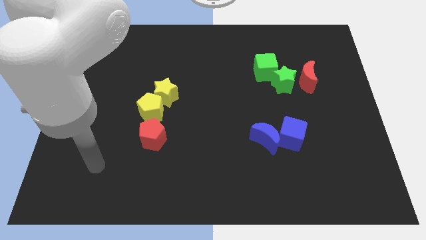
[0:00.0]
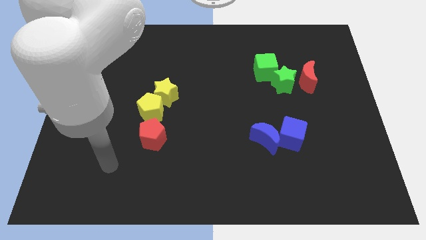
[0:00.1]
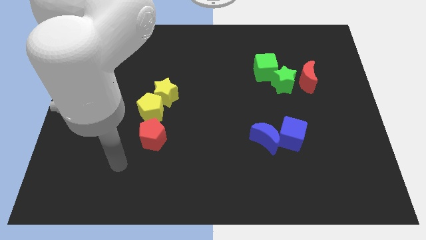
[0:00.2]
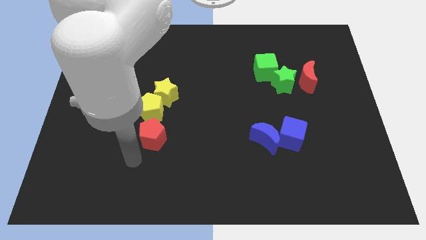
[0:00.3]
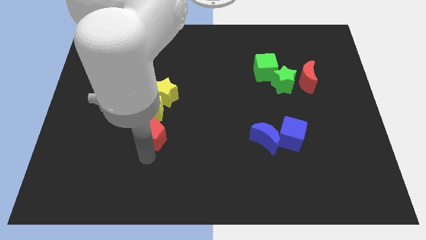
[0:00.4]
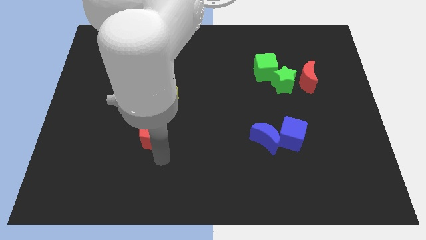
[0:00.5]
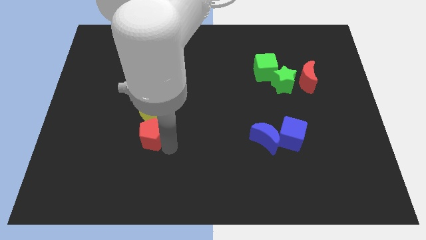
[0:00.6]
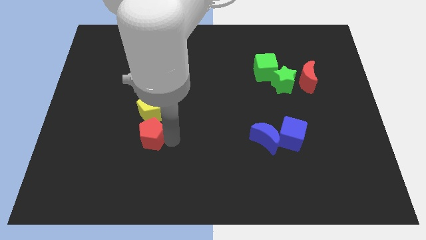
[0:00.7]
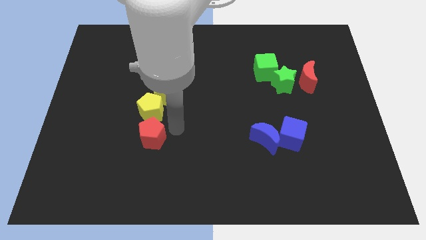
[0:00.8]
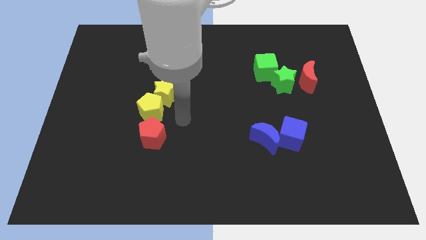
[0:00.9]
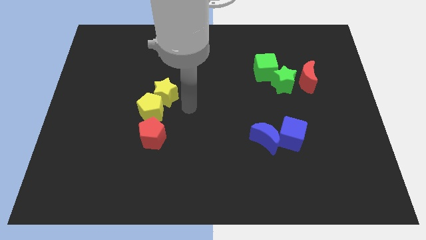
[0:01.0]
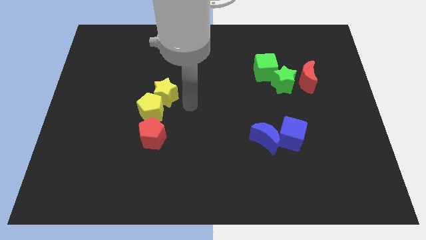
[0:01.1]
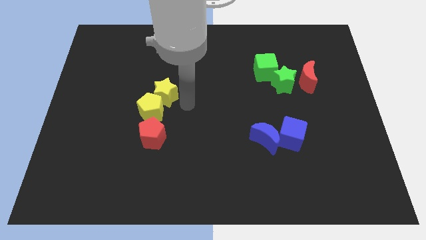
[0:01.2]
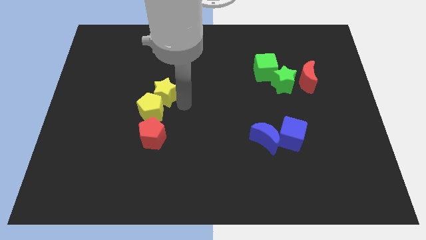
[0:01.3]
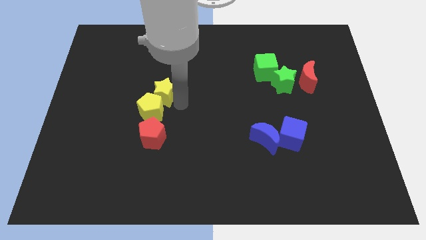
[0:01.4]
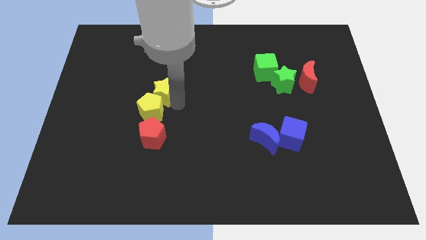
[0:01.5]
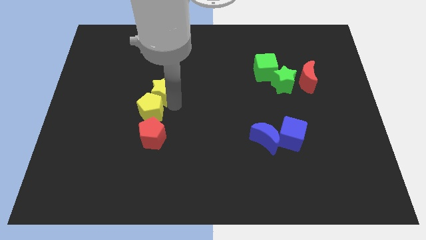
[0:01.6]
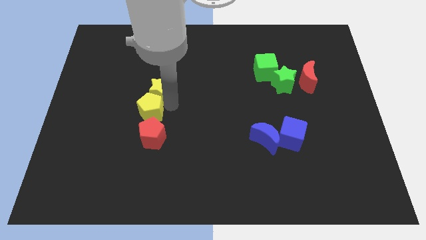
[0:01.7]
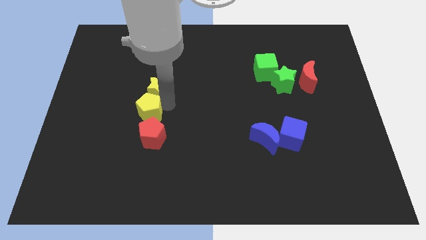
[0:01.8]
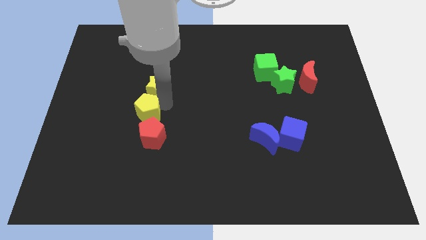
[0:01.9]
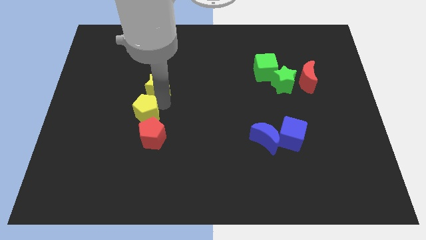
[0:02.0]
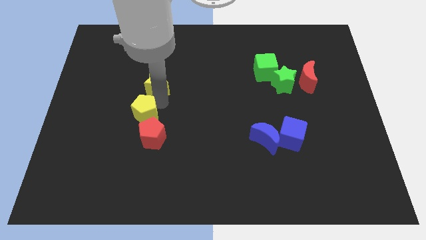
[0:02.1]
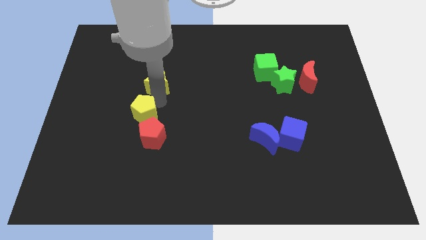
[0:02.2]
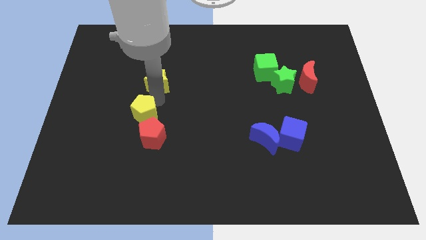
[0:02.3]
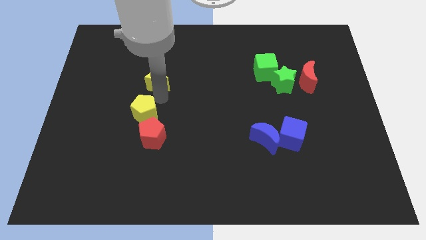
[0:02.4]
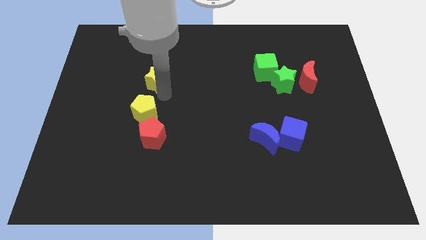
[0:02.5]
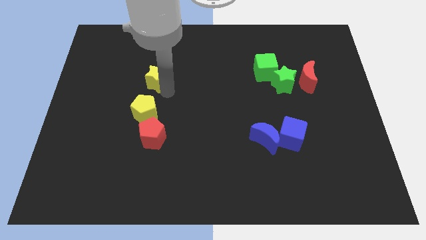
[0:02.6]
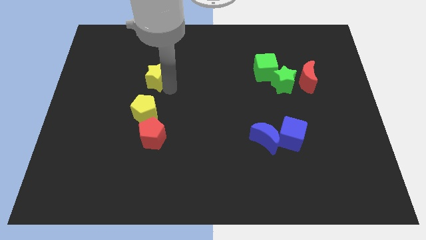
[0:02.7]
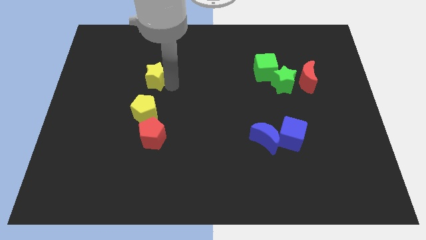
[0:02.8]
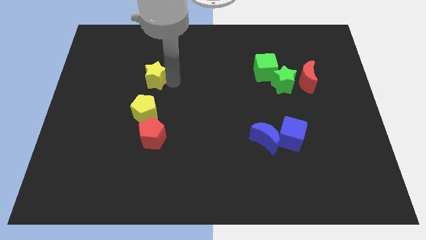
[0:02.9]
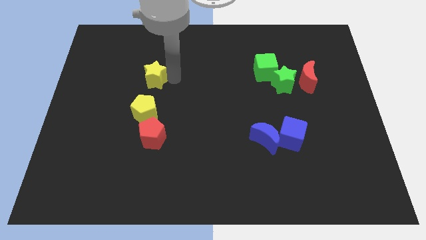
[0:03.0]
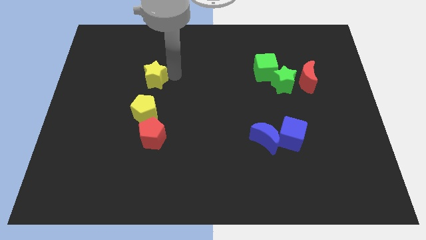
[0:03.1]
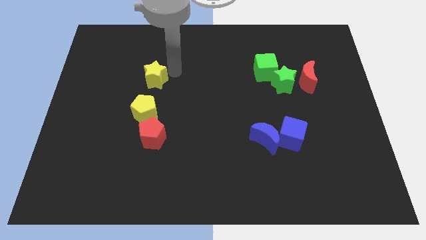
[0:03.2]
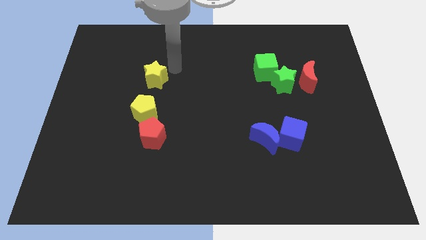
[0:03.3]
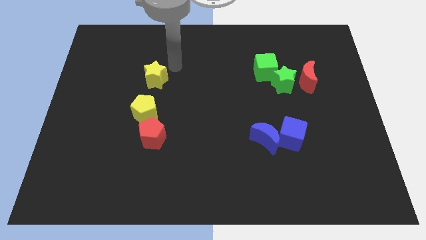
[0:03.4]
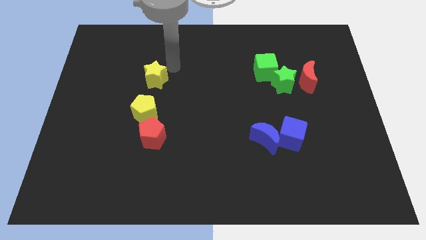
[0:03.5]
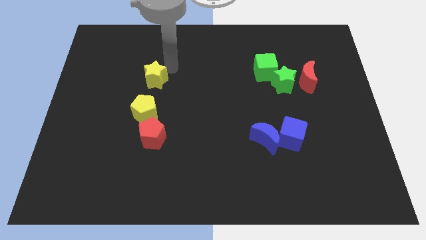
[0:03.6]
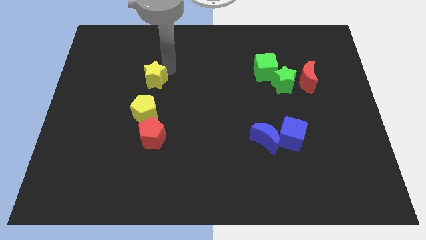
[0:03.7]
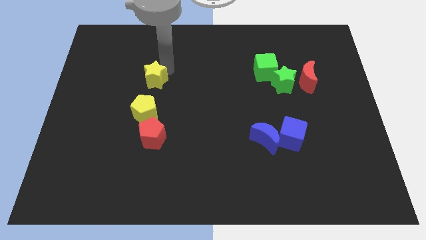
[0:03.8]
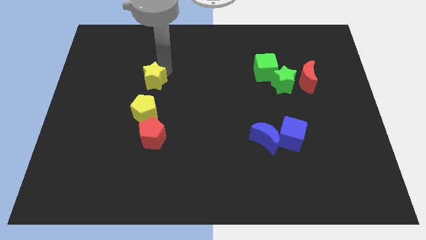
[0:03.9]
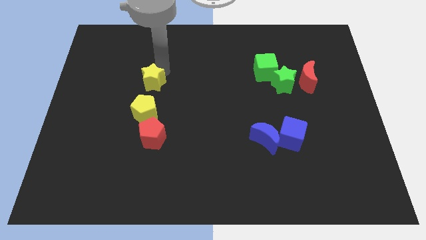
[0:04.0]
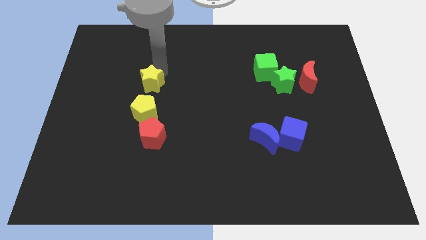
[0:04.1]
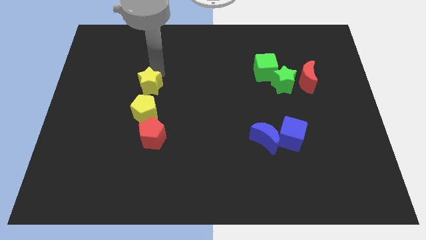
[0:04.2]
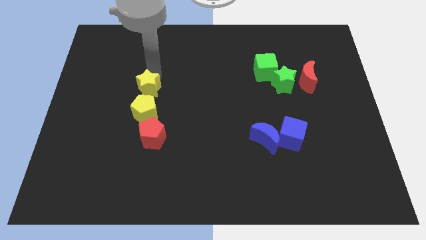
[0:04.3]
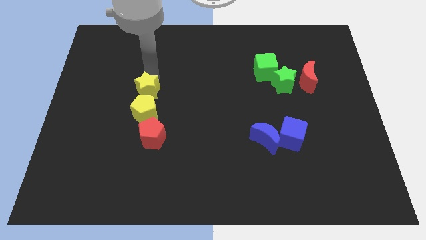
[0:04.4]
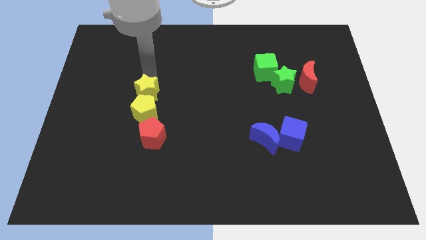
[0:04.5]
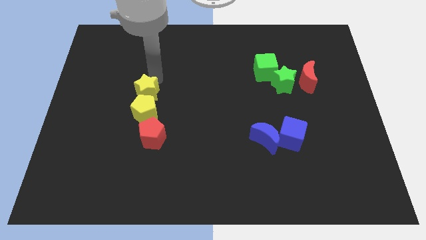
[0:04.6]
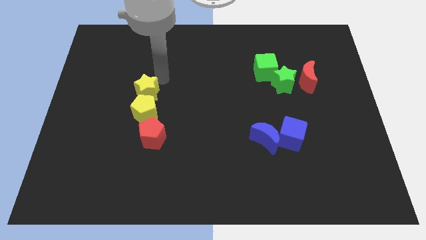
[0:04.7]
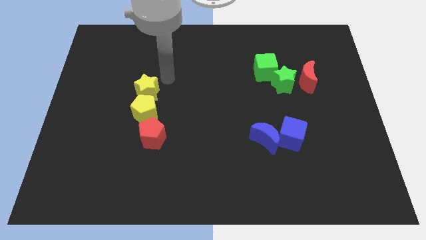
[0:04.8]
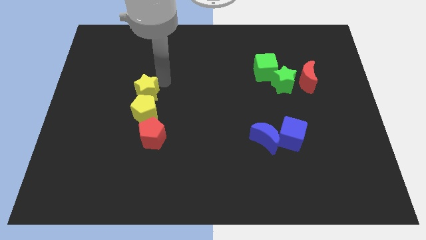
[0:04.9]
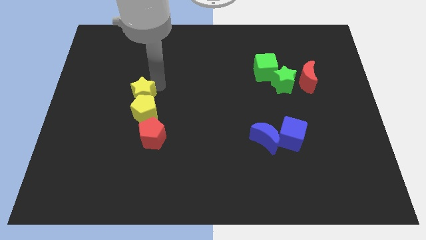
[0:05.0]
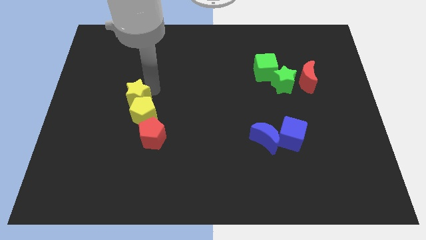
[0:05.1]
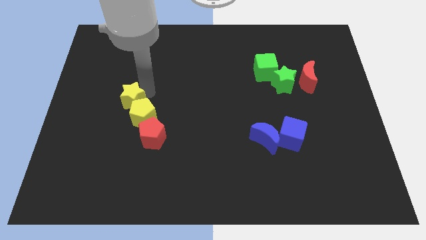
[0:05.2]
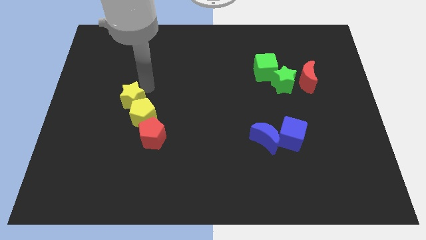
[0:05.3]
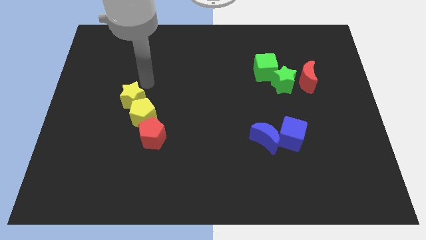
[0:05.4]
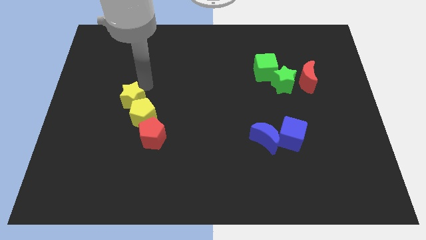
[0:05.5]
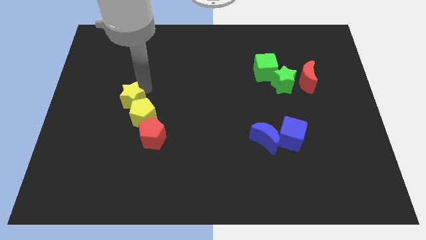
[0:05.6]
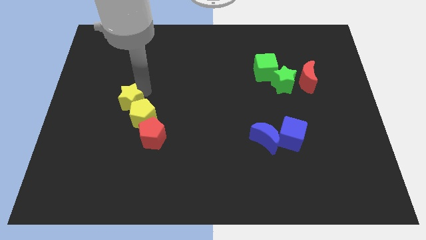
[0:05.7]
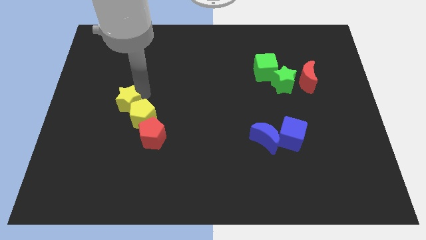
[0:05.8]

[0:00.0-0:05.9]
slide the yellow star downwards and then to the left a little

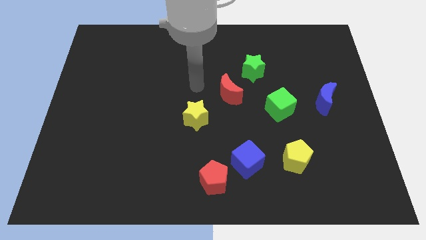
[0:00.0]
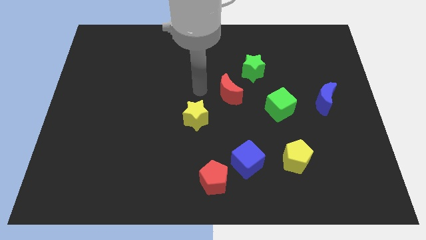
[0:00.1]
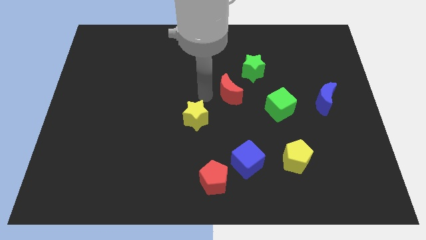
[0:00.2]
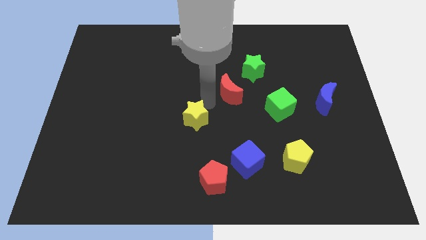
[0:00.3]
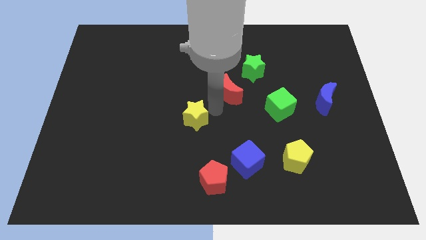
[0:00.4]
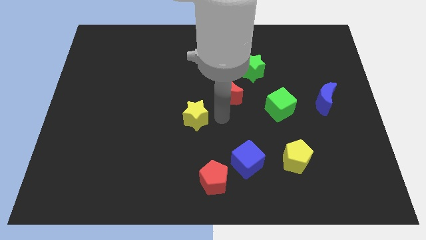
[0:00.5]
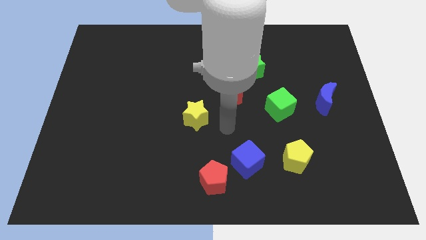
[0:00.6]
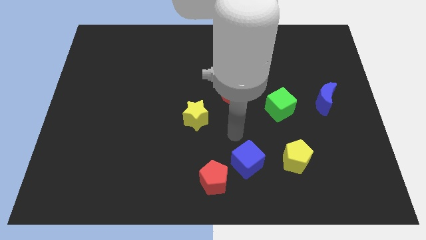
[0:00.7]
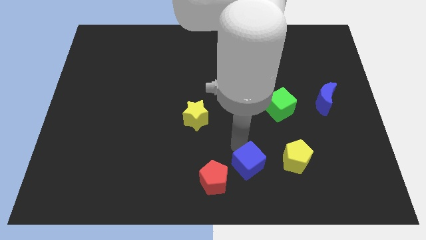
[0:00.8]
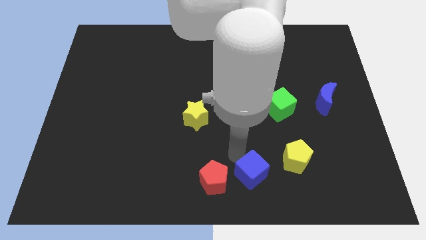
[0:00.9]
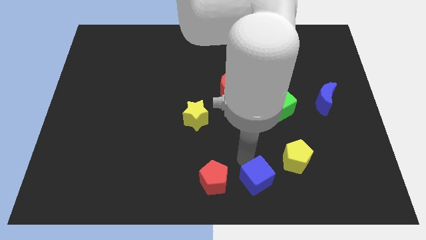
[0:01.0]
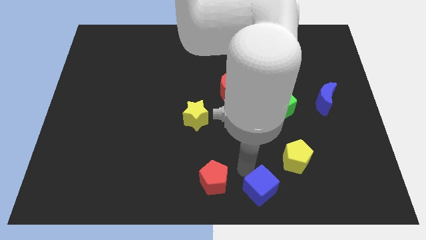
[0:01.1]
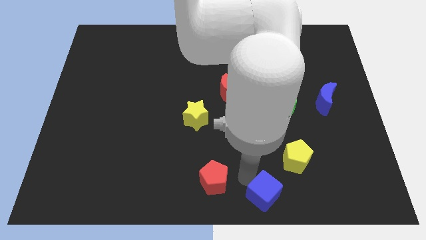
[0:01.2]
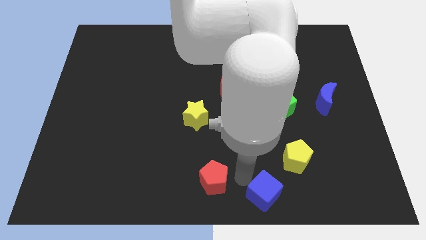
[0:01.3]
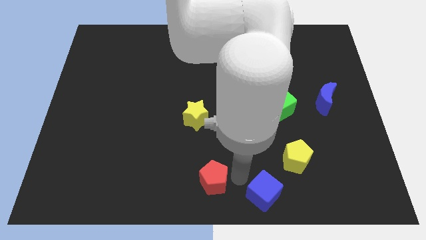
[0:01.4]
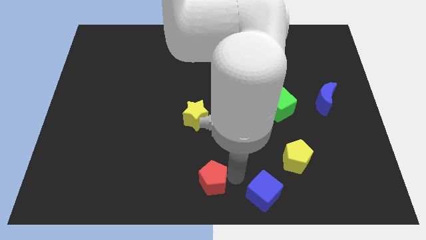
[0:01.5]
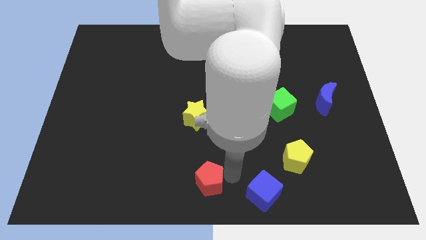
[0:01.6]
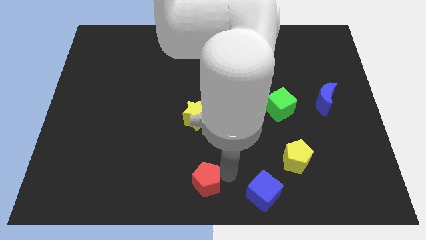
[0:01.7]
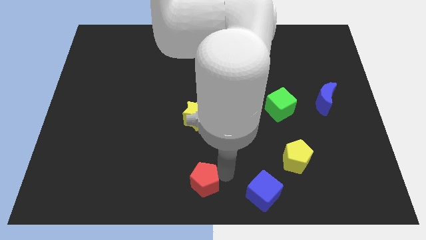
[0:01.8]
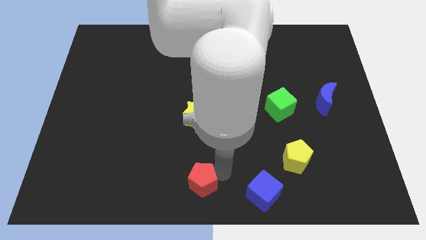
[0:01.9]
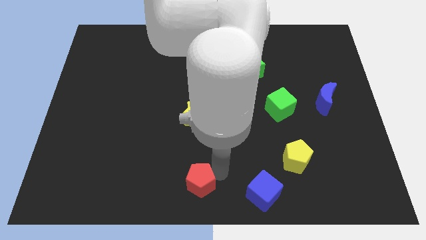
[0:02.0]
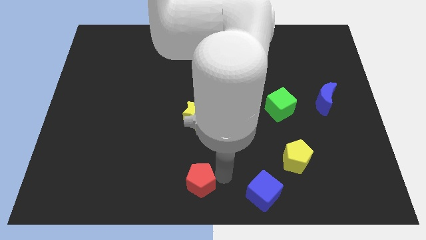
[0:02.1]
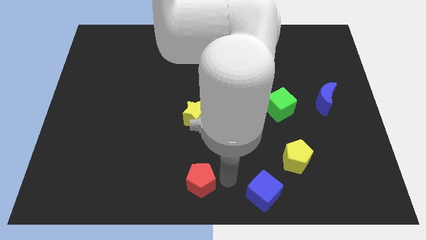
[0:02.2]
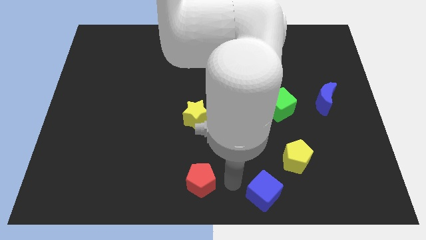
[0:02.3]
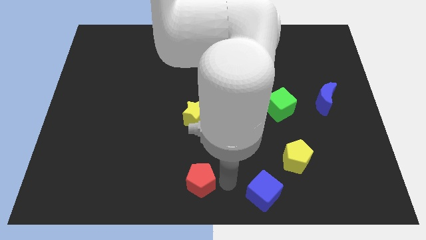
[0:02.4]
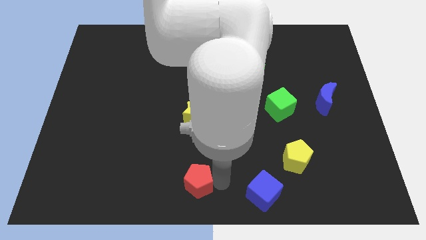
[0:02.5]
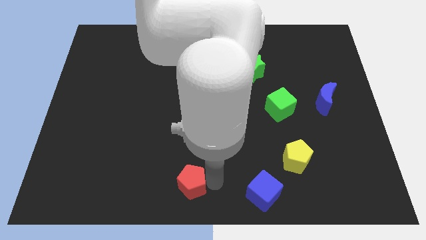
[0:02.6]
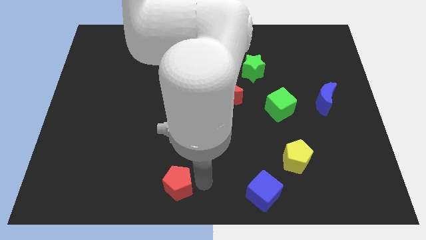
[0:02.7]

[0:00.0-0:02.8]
slightly slide the red pentagon to the left
